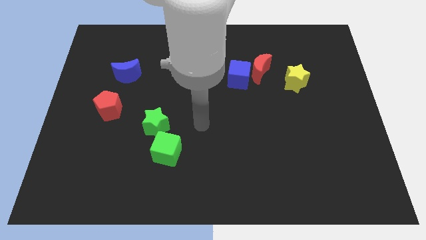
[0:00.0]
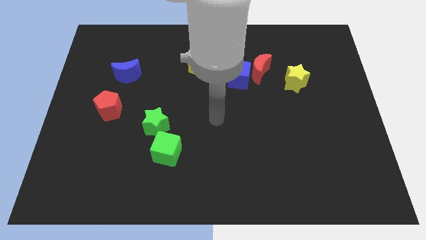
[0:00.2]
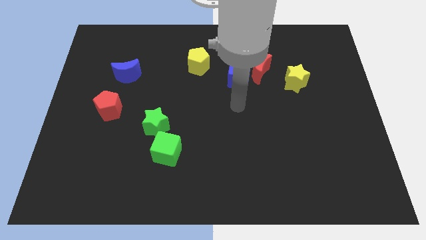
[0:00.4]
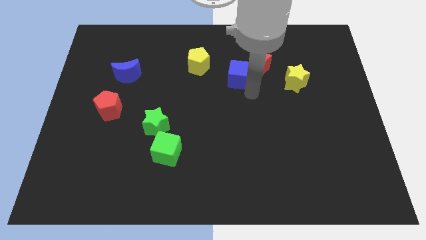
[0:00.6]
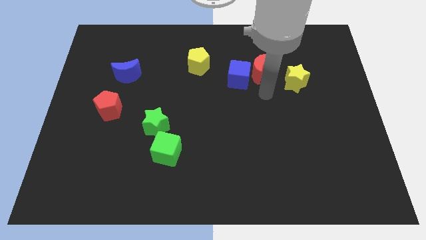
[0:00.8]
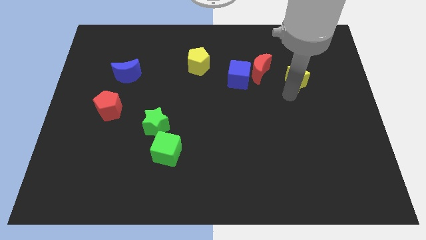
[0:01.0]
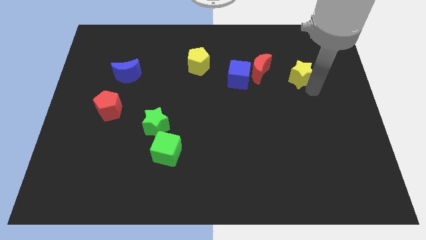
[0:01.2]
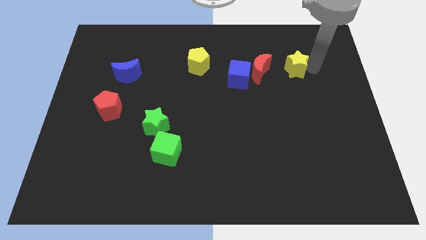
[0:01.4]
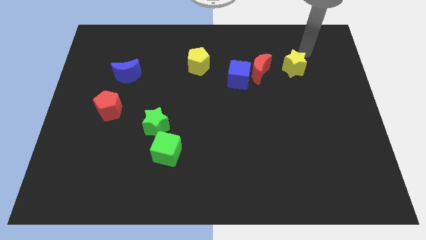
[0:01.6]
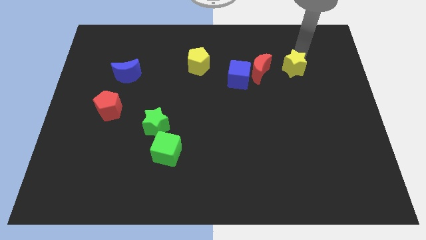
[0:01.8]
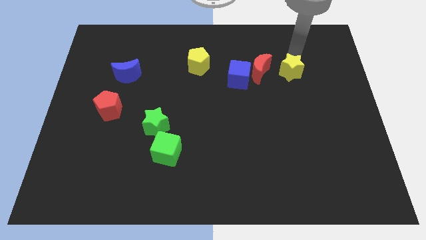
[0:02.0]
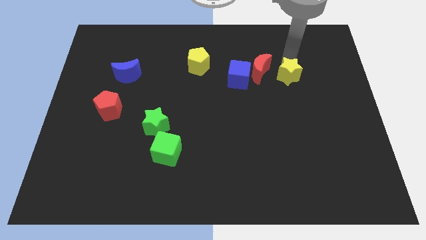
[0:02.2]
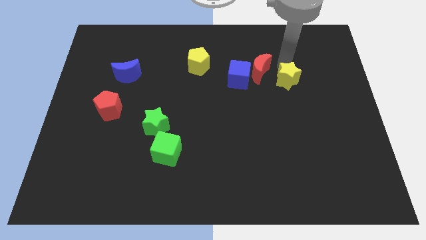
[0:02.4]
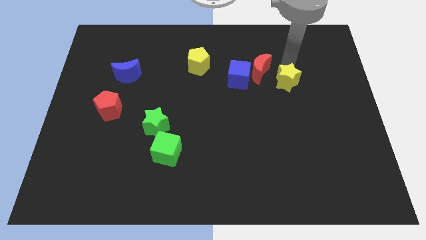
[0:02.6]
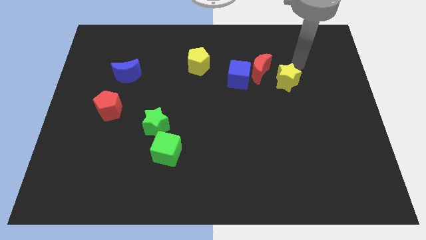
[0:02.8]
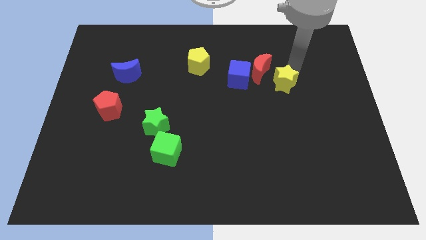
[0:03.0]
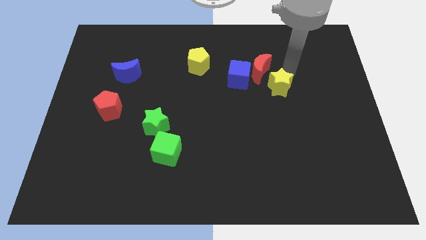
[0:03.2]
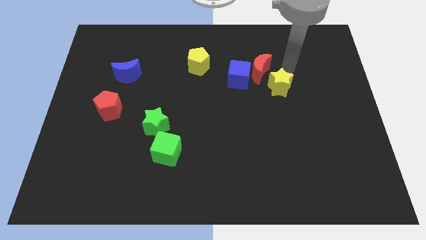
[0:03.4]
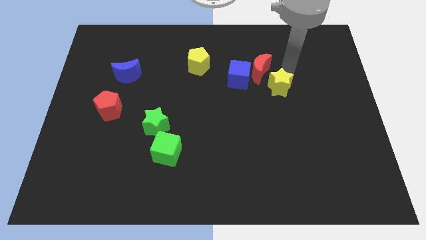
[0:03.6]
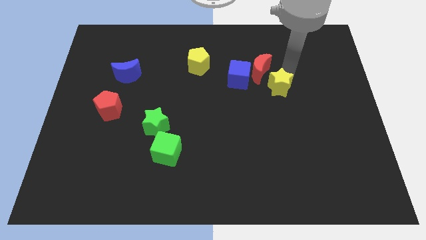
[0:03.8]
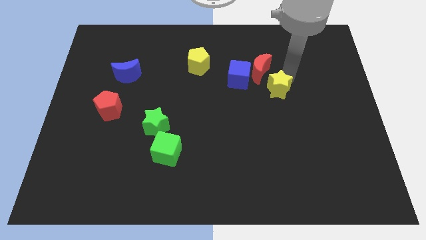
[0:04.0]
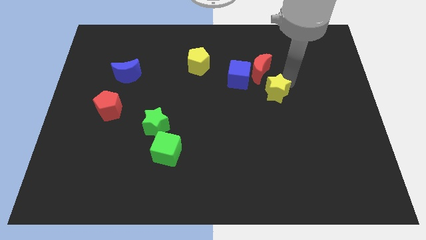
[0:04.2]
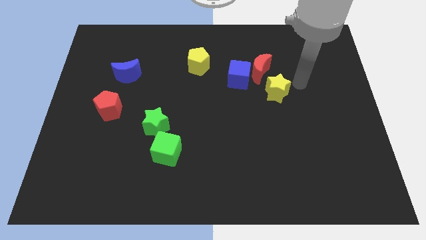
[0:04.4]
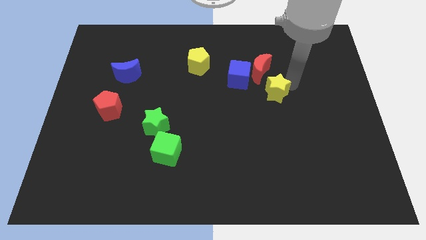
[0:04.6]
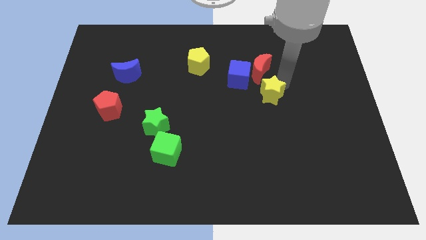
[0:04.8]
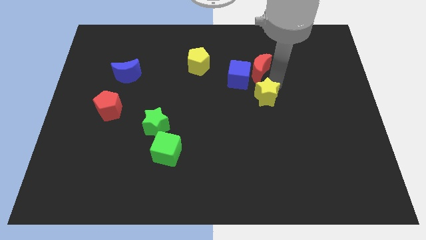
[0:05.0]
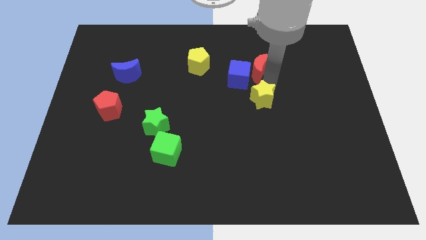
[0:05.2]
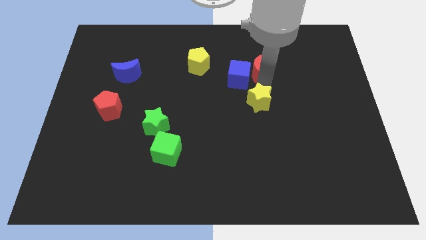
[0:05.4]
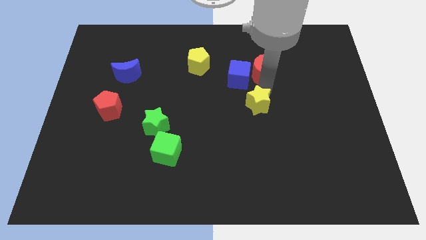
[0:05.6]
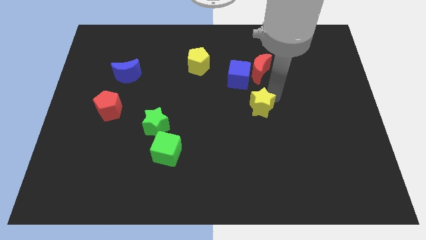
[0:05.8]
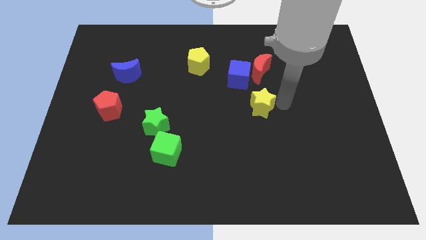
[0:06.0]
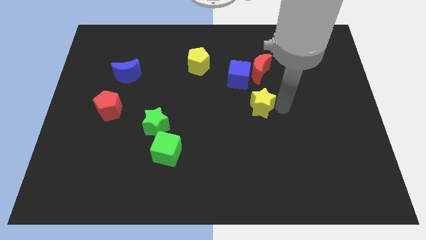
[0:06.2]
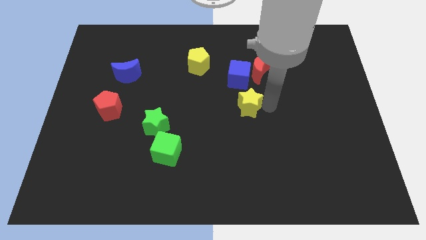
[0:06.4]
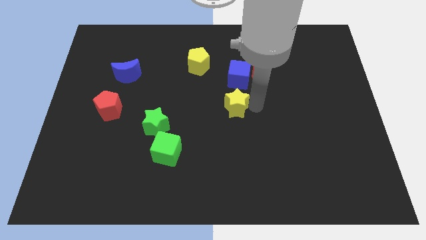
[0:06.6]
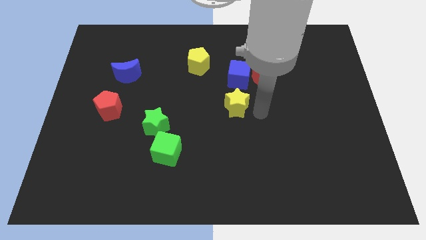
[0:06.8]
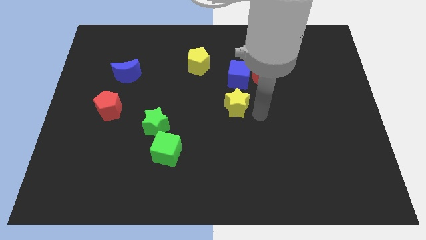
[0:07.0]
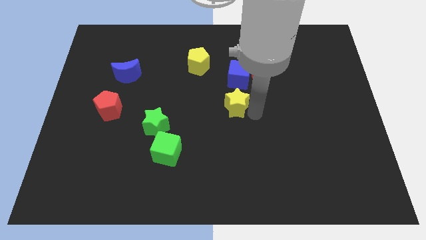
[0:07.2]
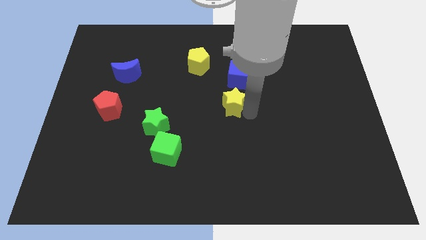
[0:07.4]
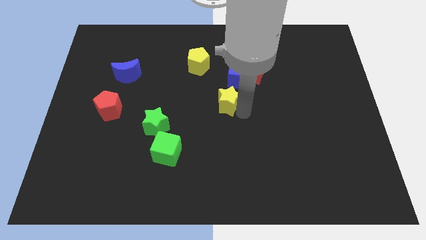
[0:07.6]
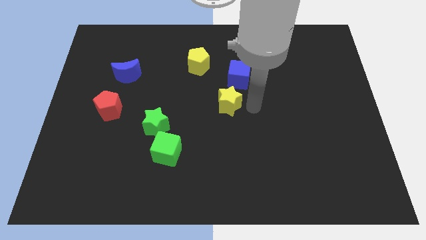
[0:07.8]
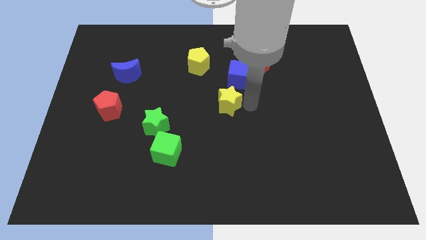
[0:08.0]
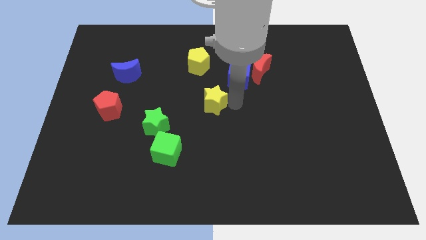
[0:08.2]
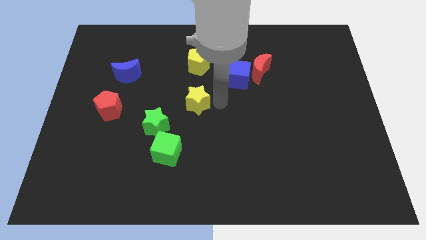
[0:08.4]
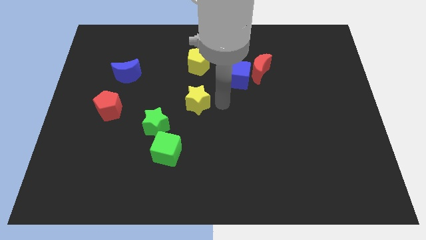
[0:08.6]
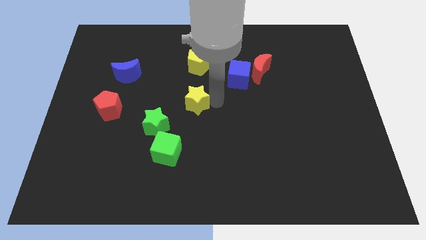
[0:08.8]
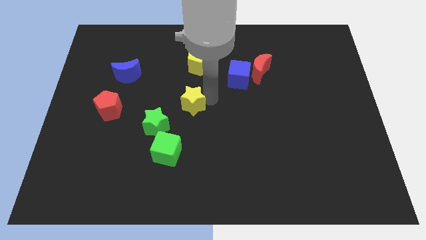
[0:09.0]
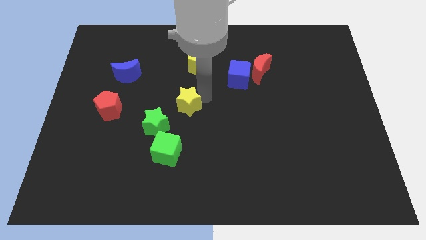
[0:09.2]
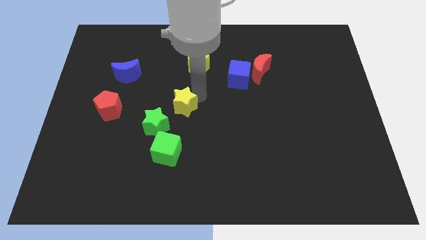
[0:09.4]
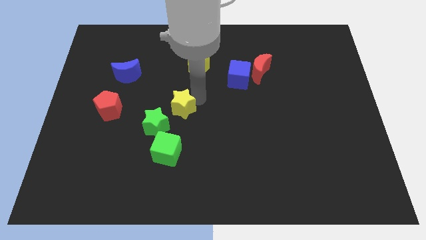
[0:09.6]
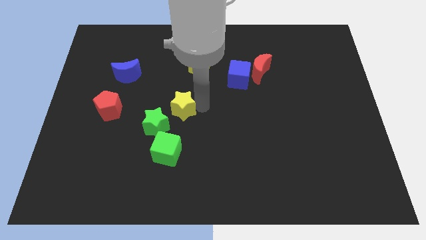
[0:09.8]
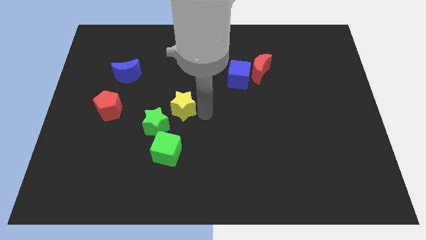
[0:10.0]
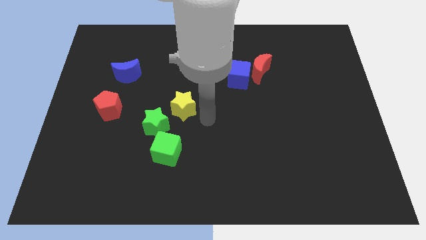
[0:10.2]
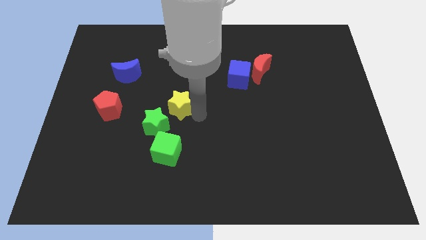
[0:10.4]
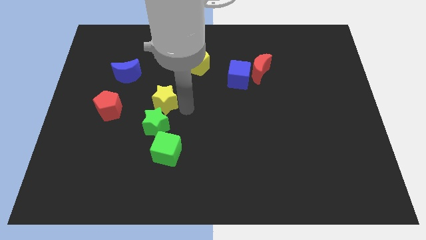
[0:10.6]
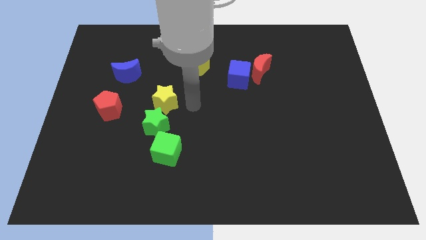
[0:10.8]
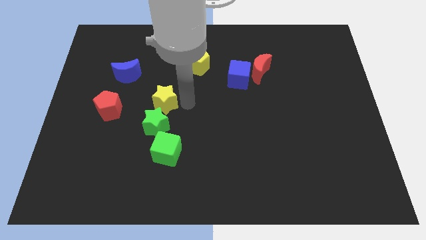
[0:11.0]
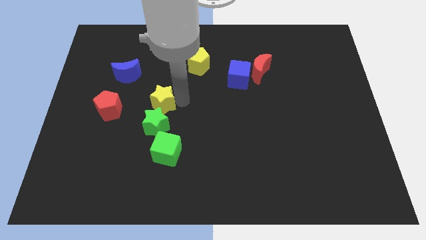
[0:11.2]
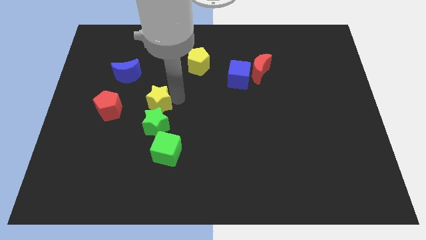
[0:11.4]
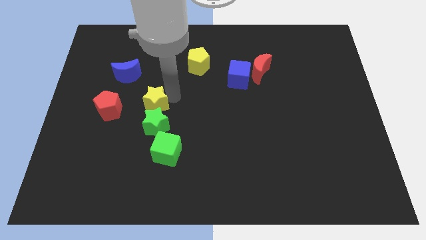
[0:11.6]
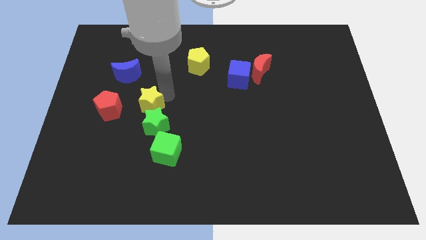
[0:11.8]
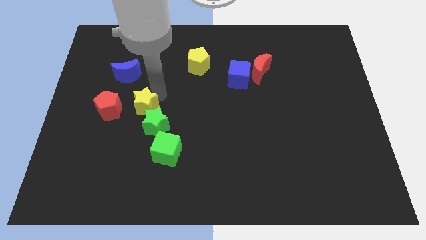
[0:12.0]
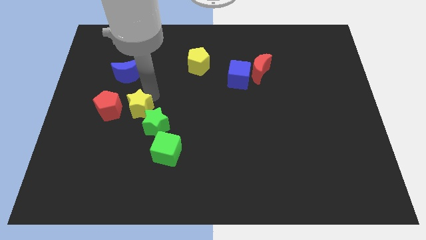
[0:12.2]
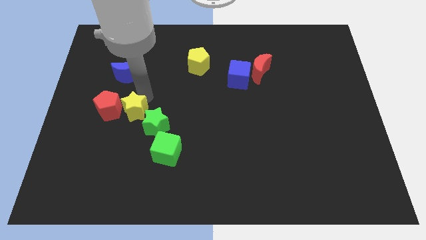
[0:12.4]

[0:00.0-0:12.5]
push the yellow star to the red pentagon
